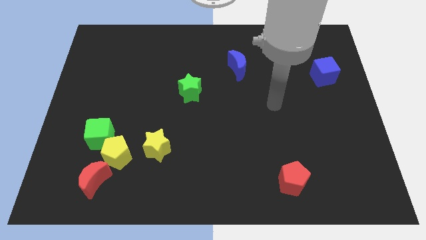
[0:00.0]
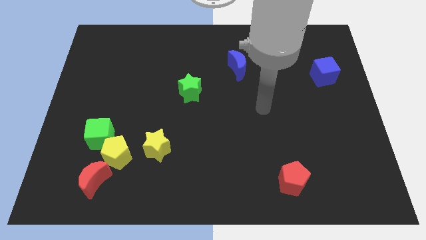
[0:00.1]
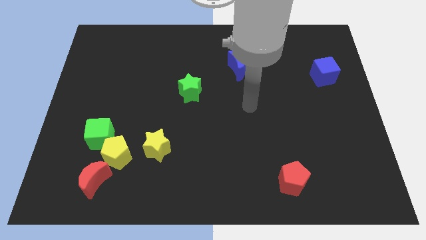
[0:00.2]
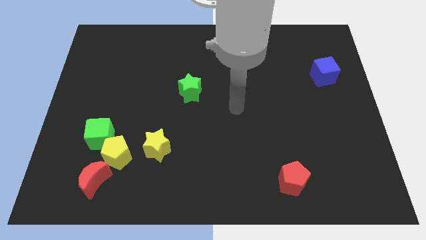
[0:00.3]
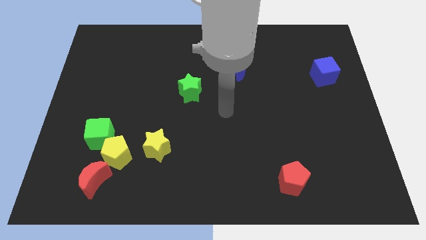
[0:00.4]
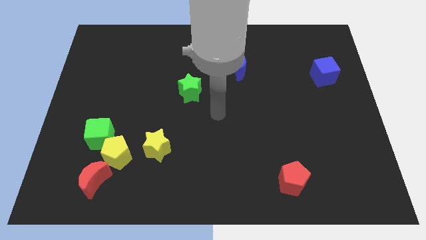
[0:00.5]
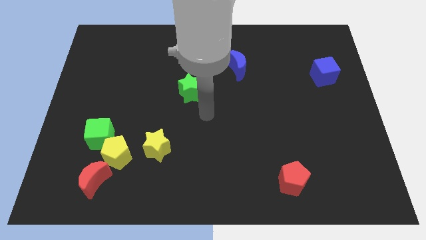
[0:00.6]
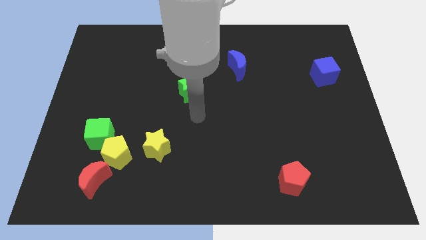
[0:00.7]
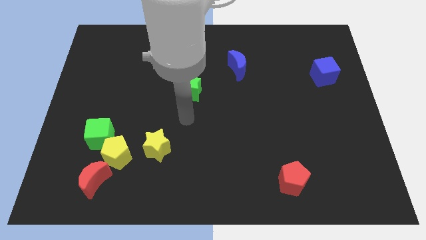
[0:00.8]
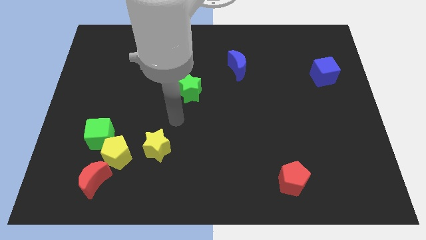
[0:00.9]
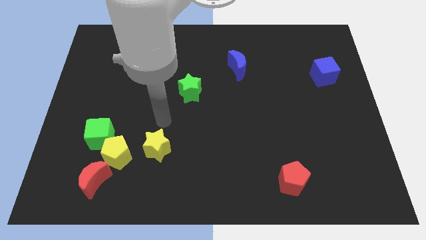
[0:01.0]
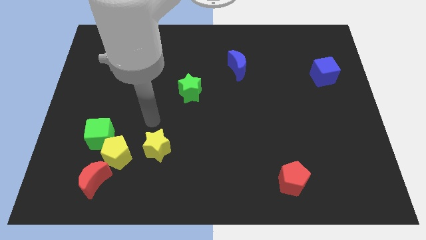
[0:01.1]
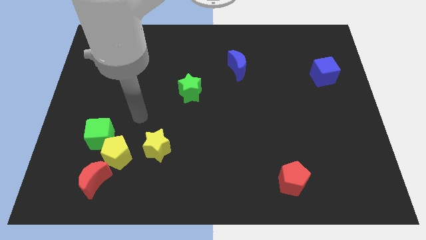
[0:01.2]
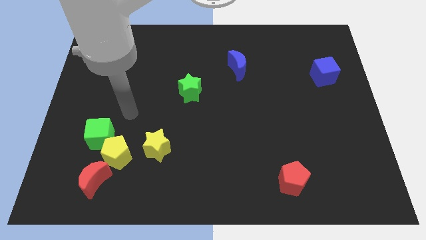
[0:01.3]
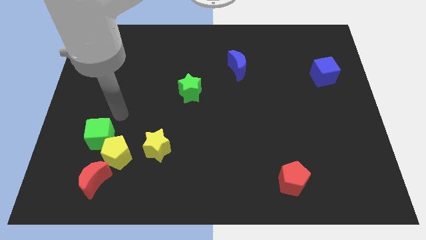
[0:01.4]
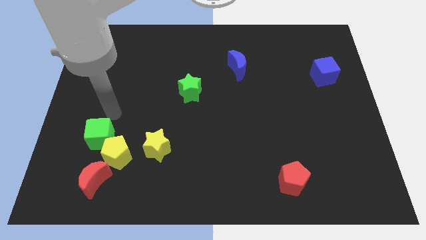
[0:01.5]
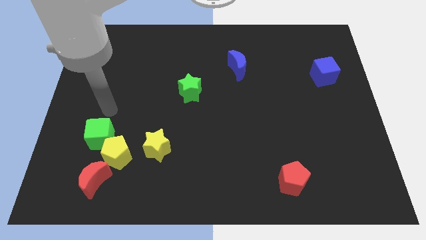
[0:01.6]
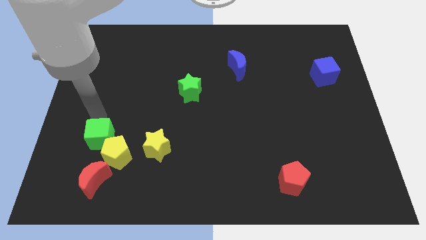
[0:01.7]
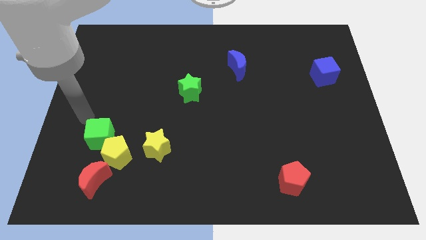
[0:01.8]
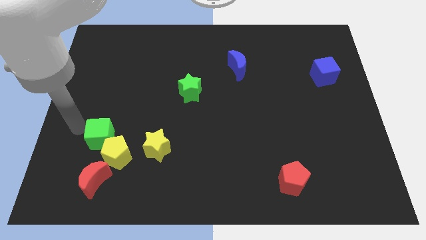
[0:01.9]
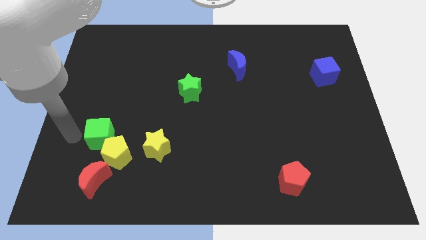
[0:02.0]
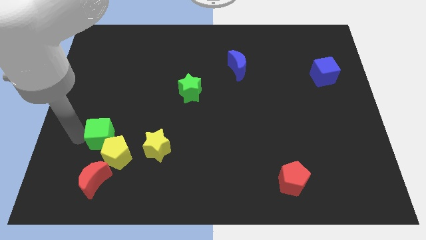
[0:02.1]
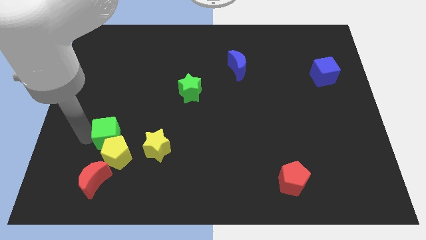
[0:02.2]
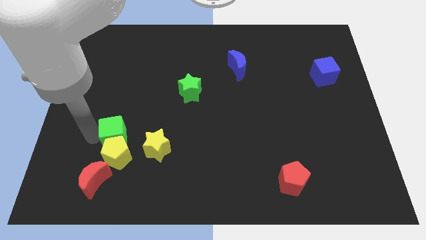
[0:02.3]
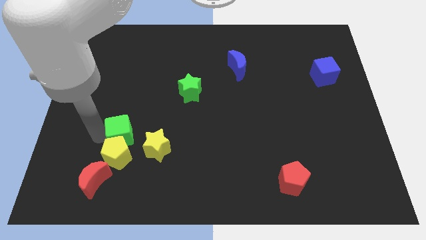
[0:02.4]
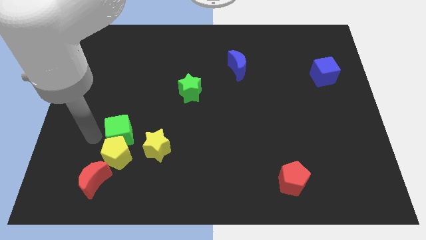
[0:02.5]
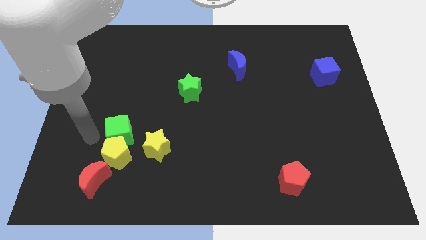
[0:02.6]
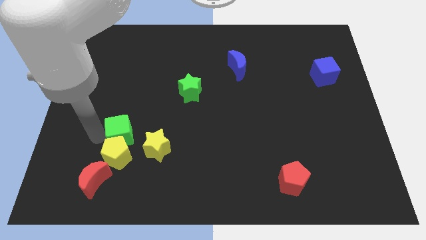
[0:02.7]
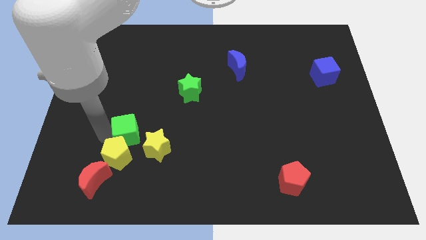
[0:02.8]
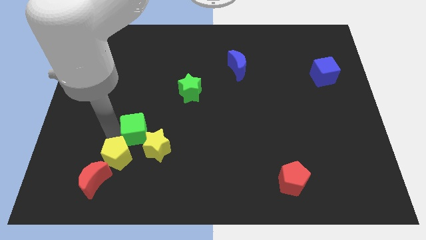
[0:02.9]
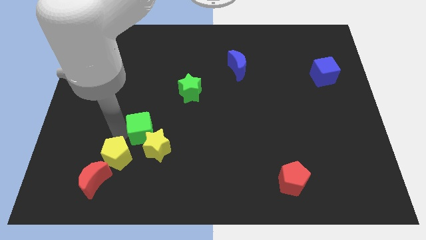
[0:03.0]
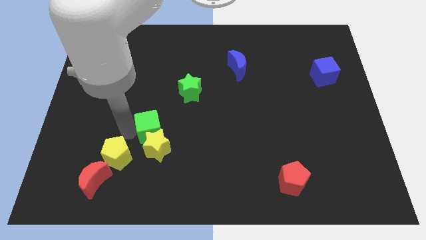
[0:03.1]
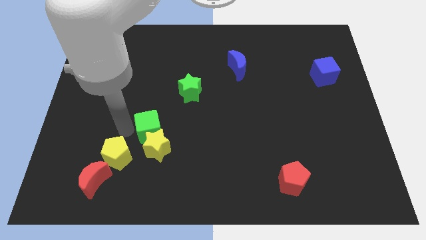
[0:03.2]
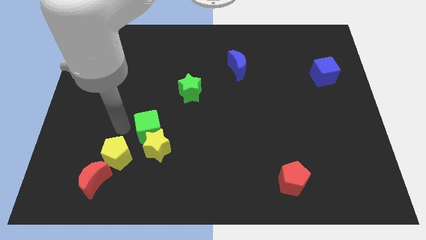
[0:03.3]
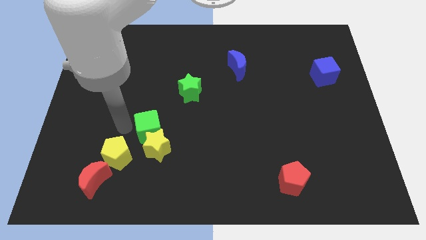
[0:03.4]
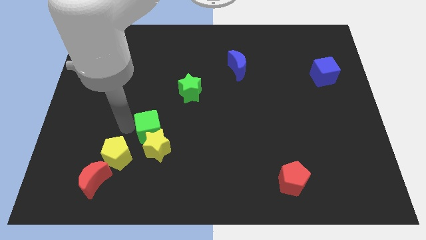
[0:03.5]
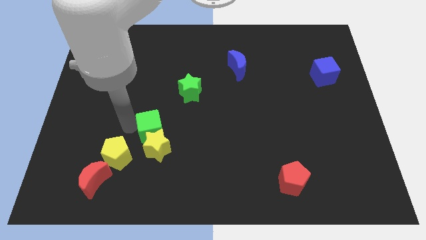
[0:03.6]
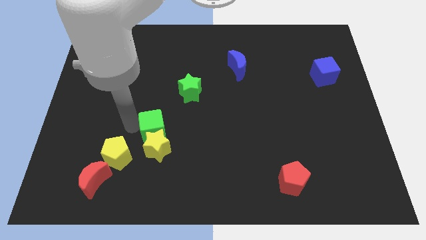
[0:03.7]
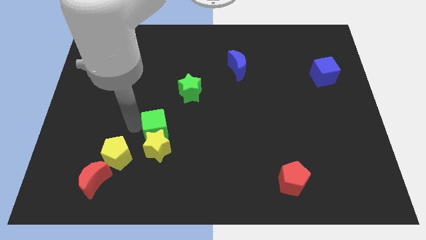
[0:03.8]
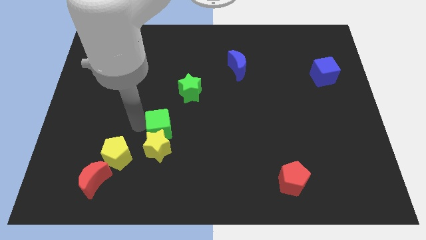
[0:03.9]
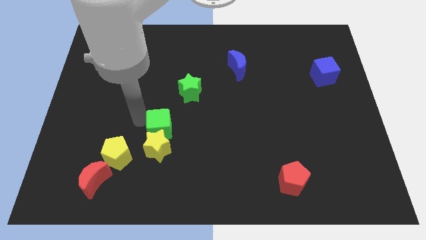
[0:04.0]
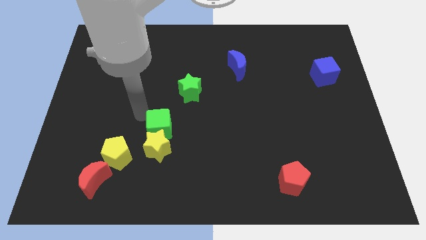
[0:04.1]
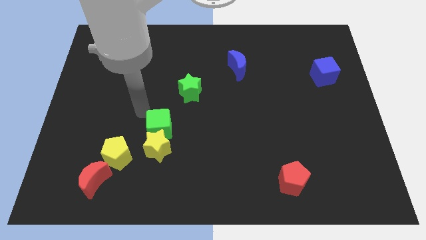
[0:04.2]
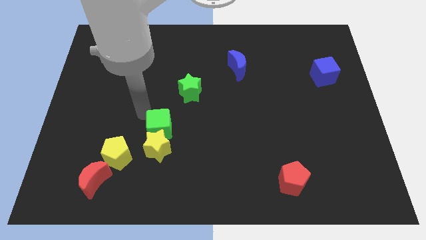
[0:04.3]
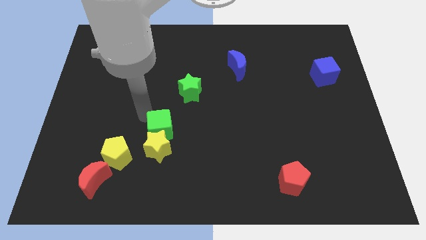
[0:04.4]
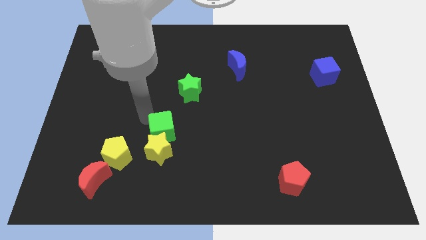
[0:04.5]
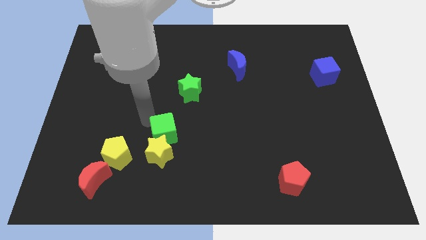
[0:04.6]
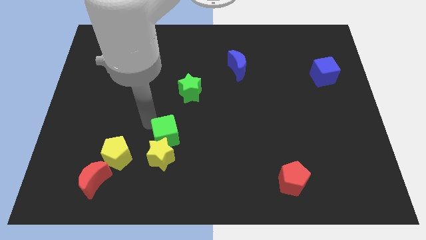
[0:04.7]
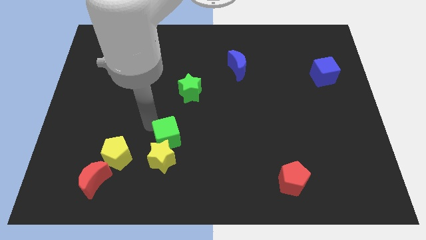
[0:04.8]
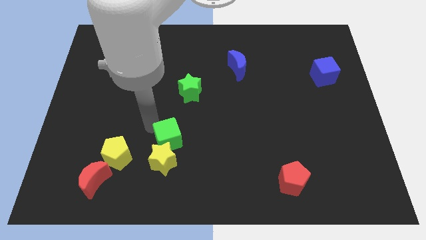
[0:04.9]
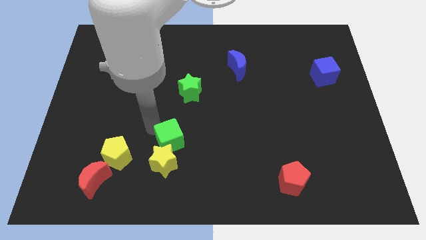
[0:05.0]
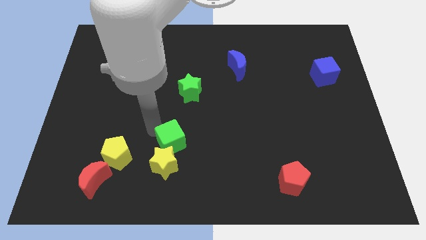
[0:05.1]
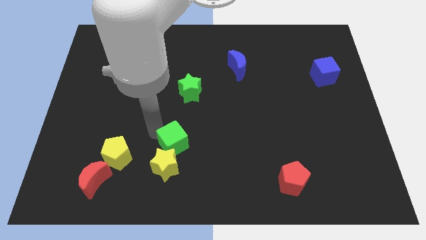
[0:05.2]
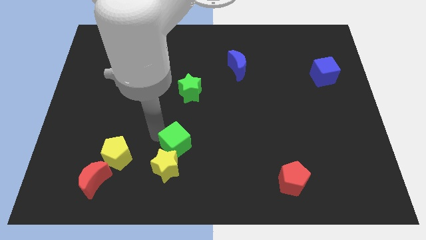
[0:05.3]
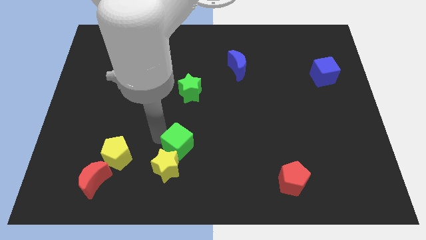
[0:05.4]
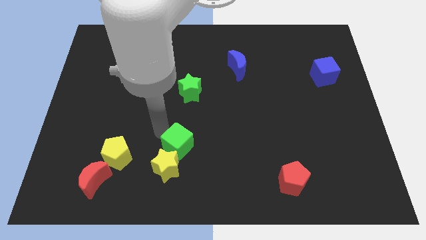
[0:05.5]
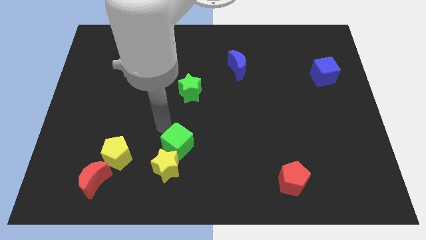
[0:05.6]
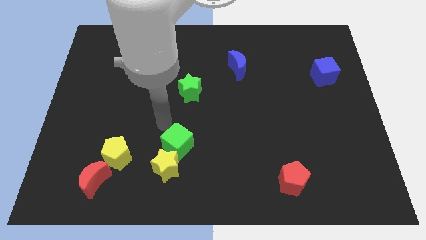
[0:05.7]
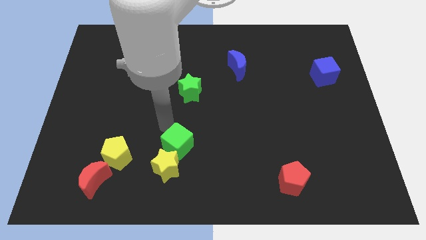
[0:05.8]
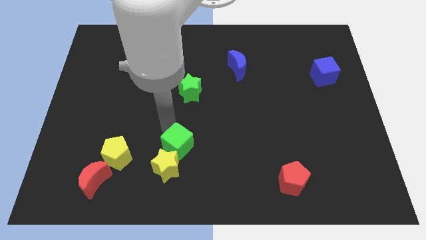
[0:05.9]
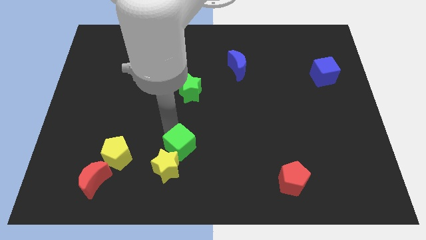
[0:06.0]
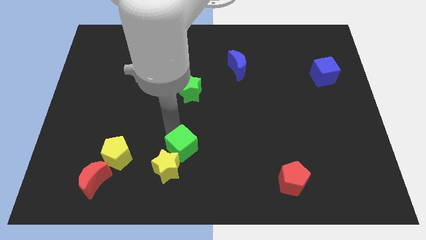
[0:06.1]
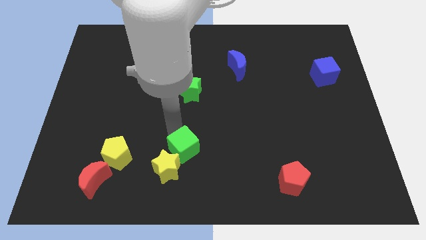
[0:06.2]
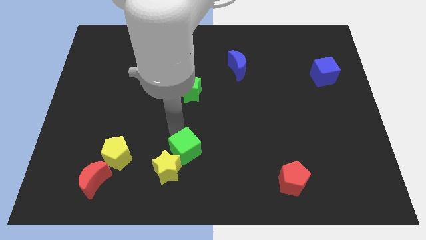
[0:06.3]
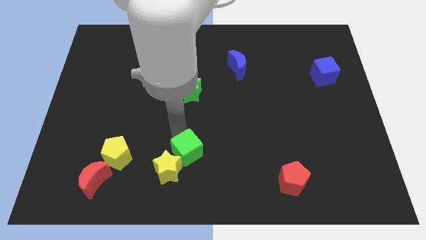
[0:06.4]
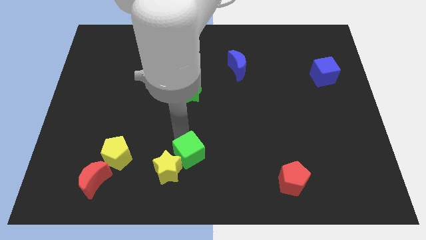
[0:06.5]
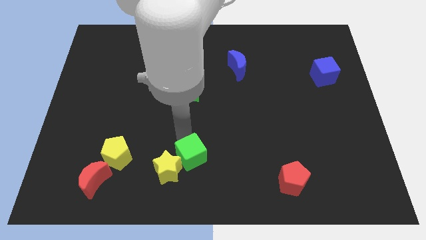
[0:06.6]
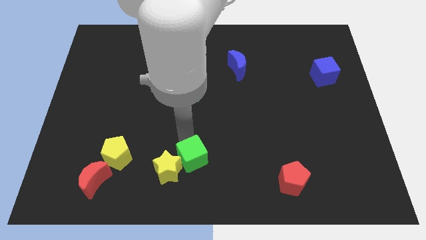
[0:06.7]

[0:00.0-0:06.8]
put the green cube to the bottom

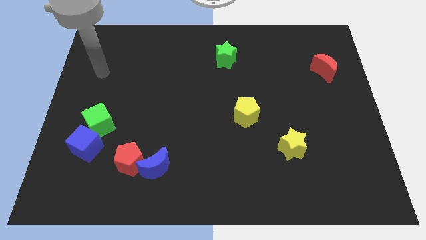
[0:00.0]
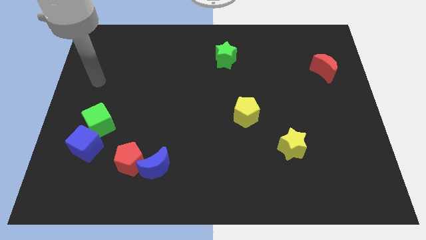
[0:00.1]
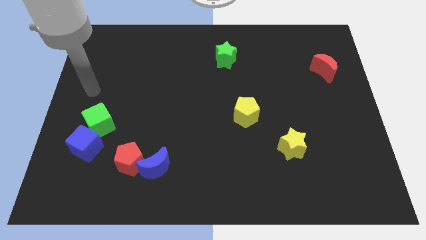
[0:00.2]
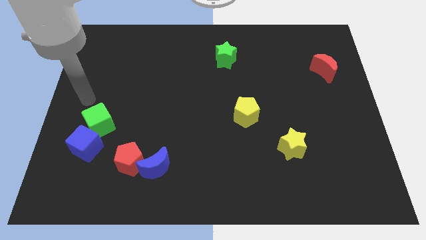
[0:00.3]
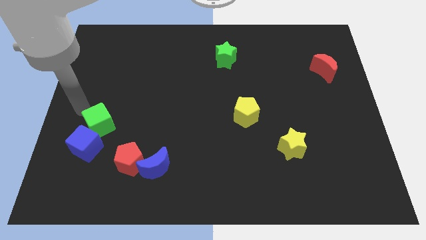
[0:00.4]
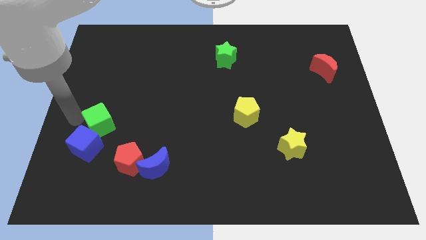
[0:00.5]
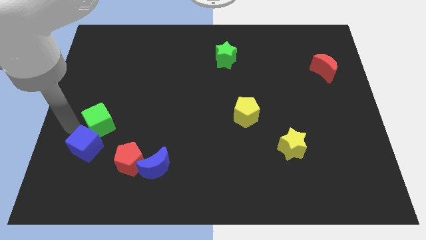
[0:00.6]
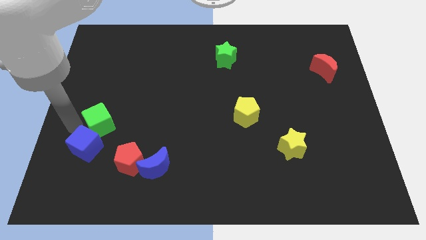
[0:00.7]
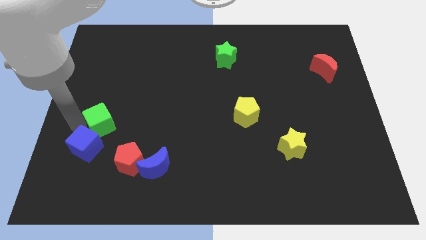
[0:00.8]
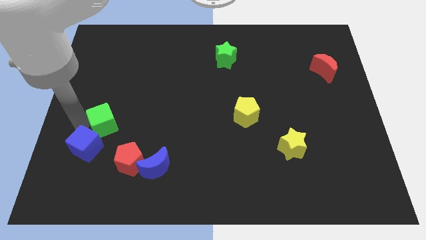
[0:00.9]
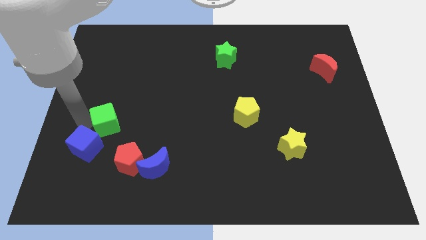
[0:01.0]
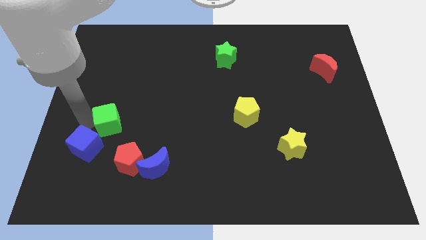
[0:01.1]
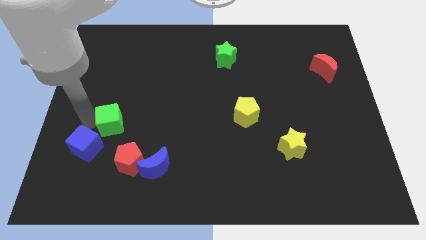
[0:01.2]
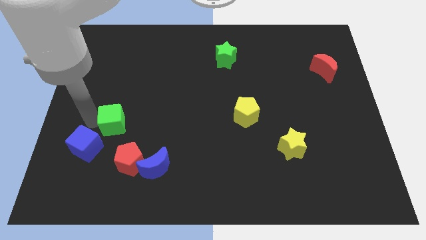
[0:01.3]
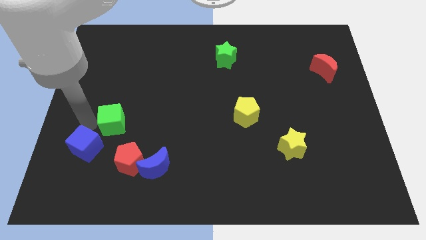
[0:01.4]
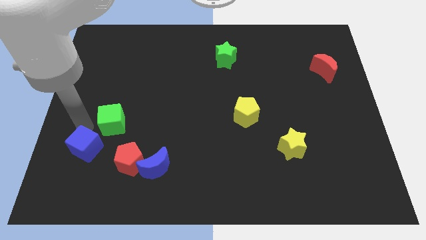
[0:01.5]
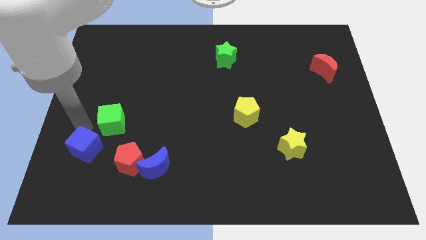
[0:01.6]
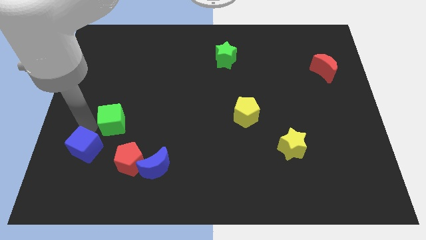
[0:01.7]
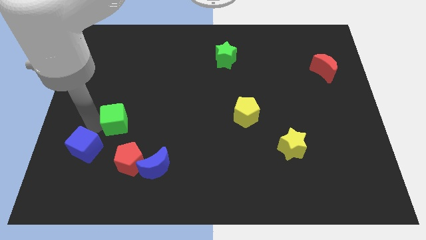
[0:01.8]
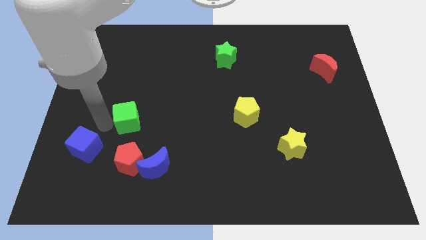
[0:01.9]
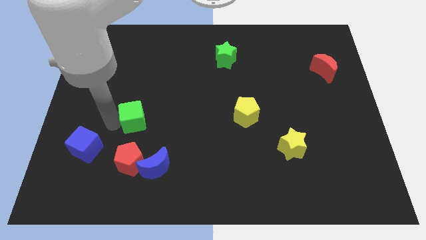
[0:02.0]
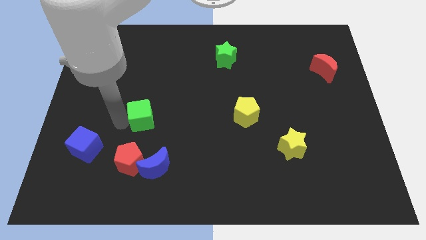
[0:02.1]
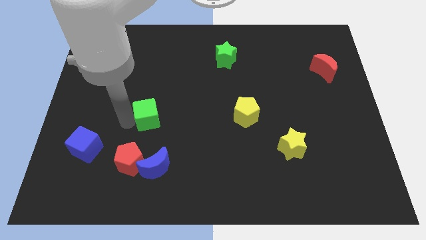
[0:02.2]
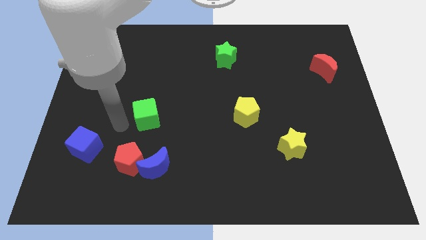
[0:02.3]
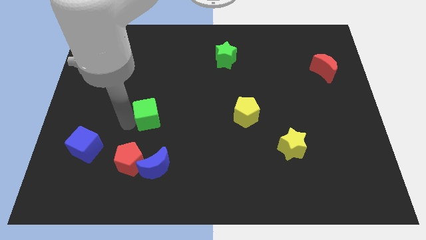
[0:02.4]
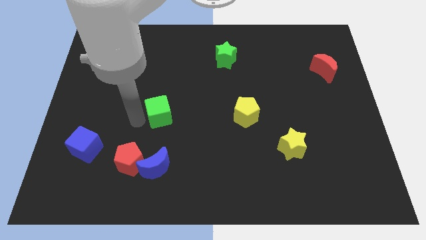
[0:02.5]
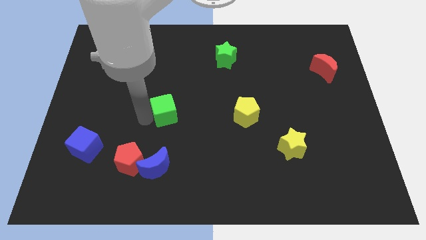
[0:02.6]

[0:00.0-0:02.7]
slide the green cube to the middle of the board
